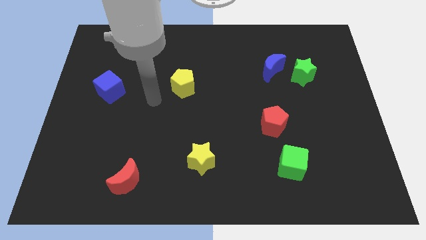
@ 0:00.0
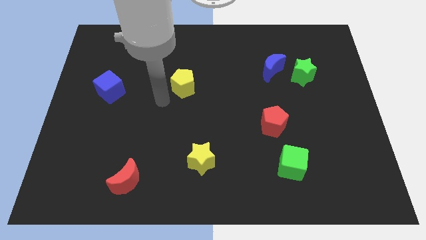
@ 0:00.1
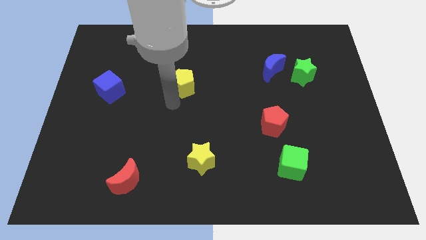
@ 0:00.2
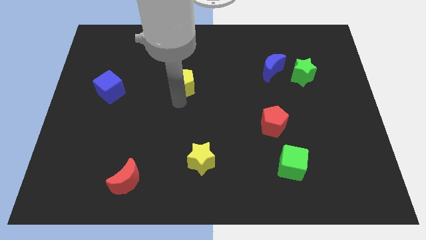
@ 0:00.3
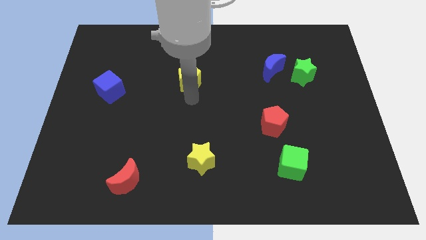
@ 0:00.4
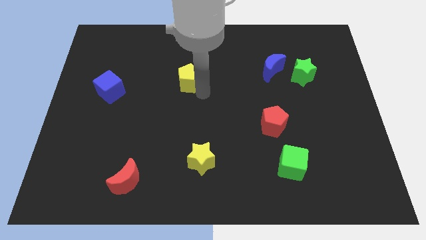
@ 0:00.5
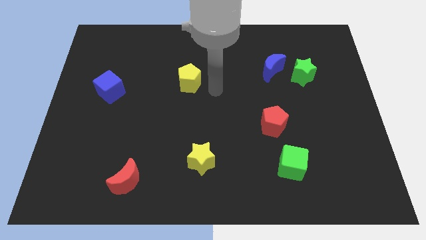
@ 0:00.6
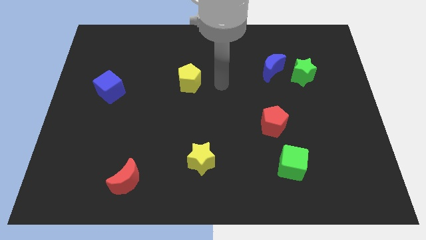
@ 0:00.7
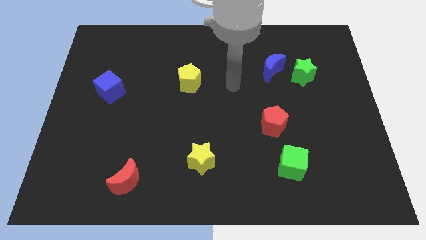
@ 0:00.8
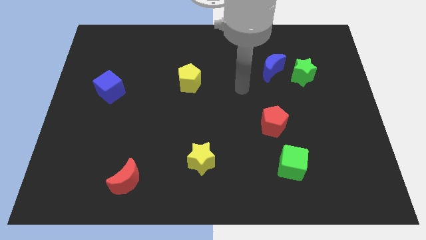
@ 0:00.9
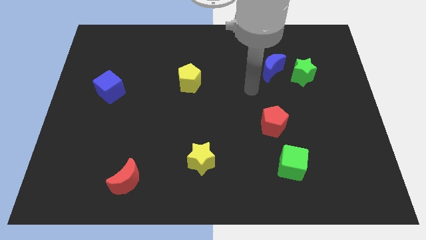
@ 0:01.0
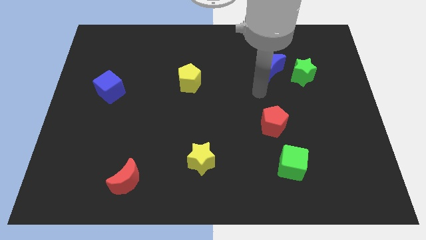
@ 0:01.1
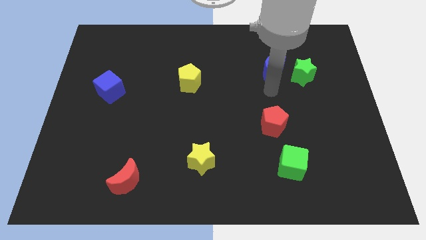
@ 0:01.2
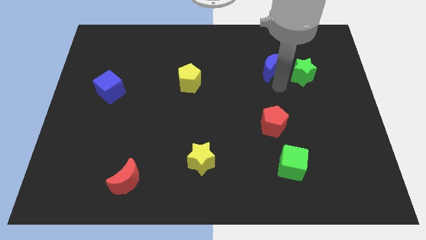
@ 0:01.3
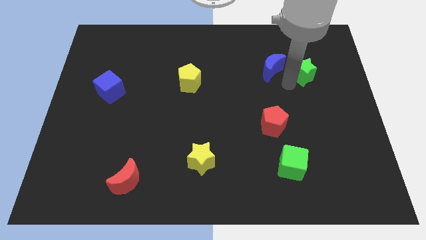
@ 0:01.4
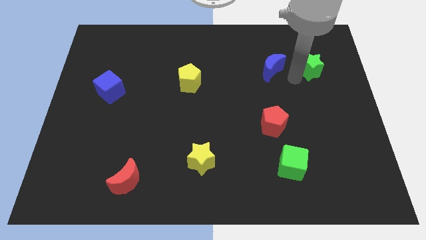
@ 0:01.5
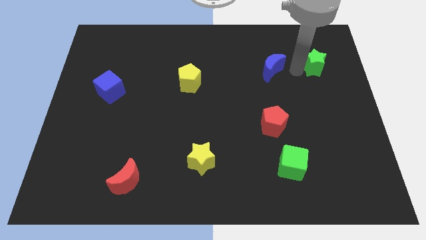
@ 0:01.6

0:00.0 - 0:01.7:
move the blue moon away from the green star

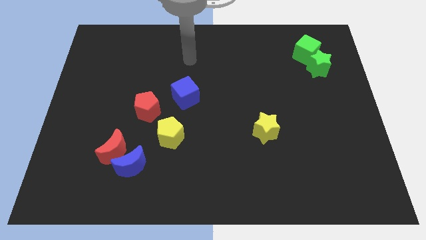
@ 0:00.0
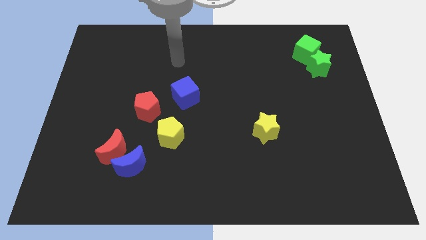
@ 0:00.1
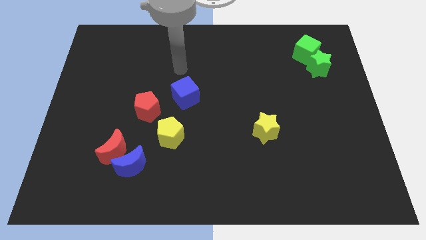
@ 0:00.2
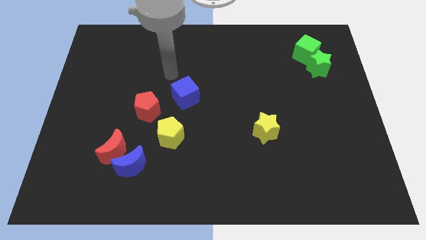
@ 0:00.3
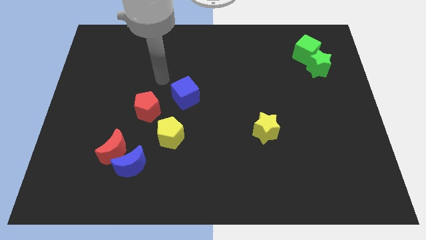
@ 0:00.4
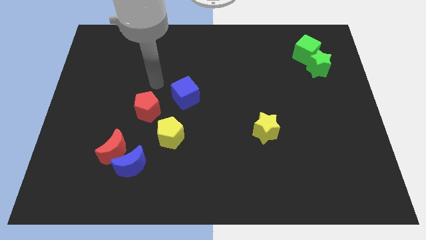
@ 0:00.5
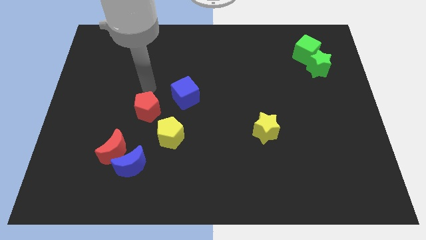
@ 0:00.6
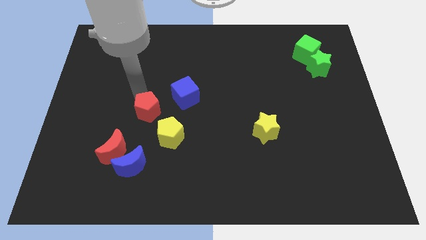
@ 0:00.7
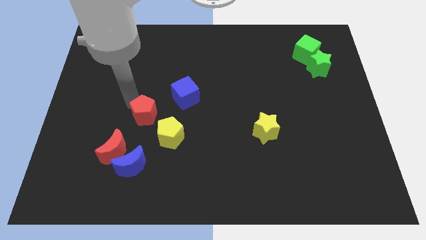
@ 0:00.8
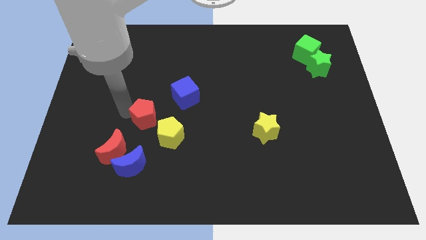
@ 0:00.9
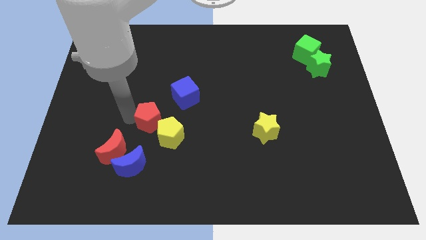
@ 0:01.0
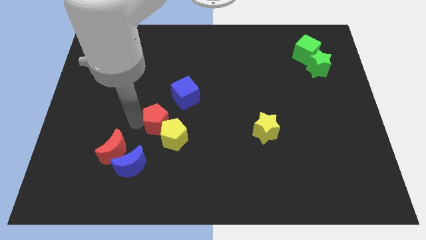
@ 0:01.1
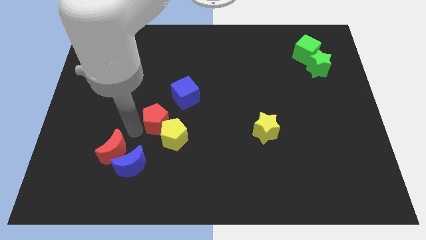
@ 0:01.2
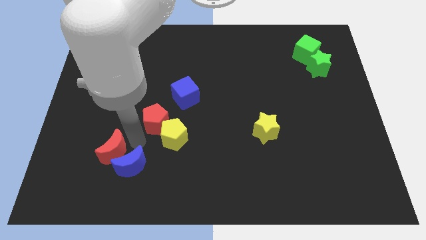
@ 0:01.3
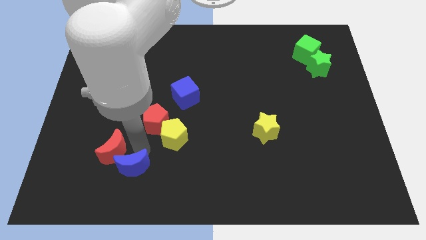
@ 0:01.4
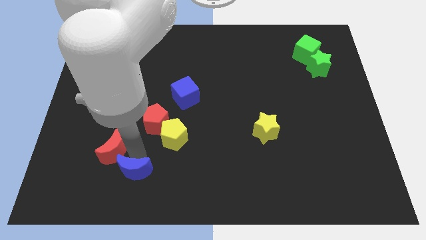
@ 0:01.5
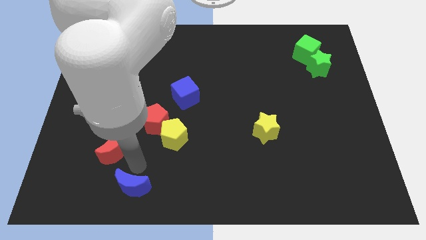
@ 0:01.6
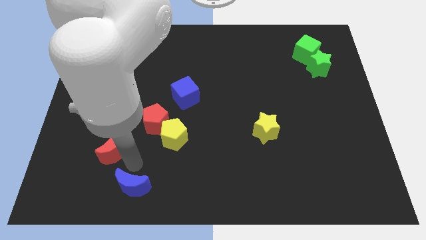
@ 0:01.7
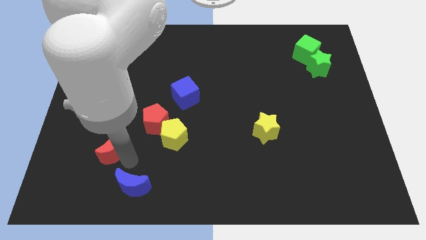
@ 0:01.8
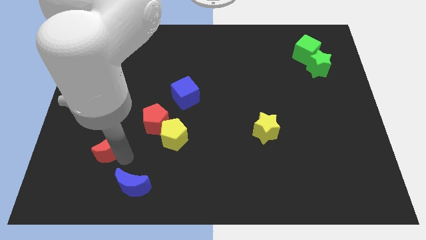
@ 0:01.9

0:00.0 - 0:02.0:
pull the red moon apart from the blue moon

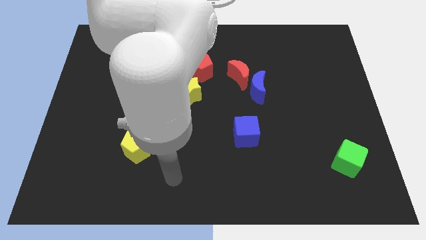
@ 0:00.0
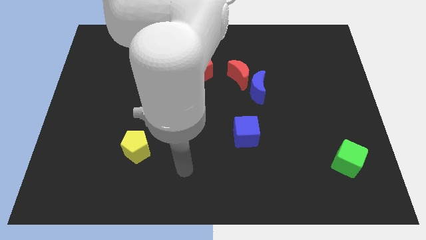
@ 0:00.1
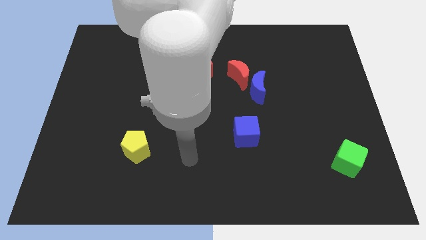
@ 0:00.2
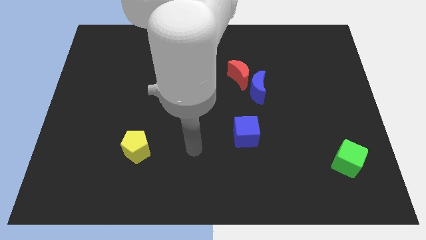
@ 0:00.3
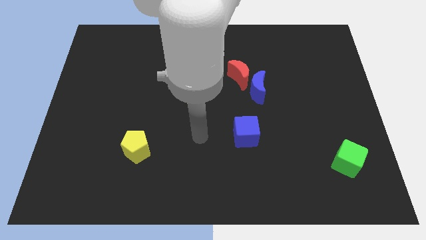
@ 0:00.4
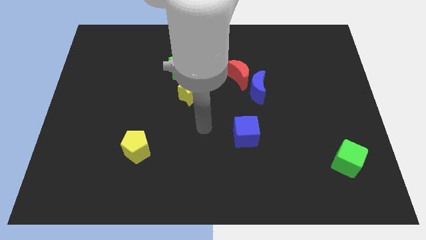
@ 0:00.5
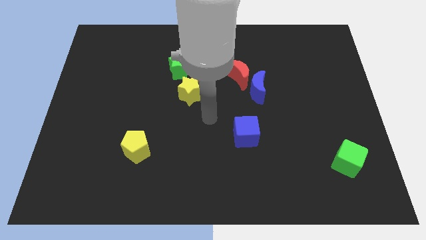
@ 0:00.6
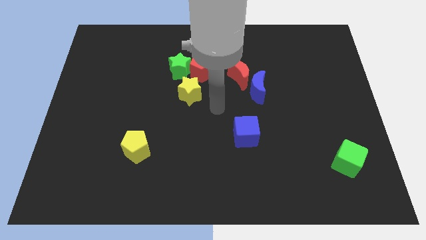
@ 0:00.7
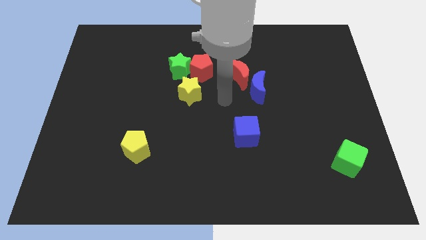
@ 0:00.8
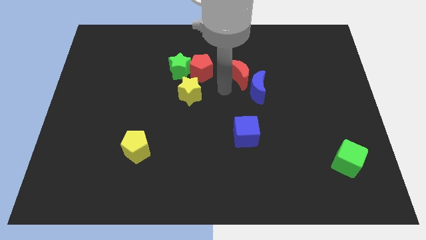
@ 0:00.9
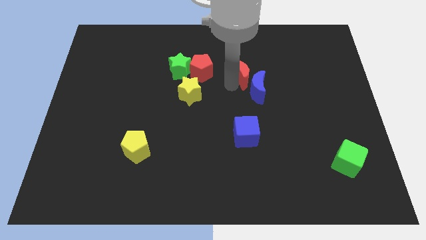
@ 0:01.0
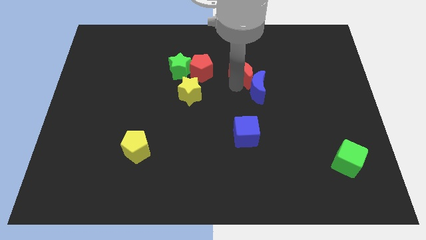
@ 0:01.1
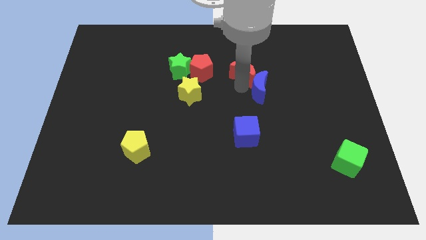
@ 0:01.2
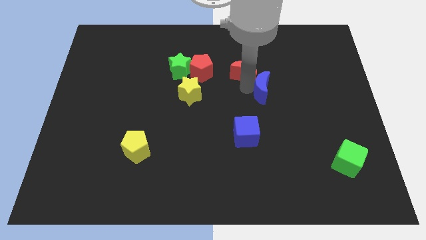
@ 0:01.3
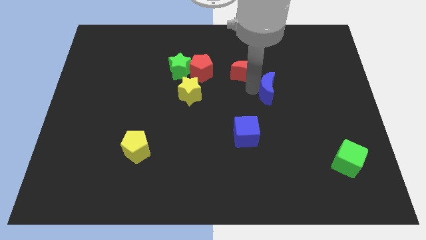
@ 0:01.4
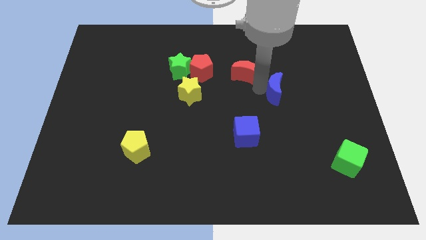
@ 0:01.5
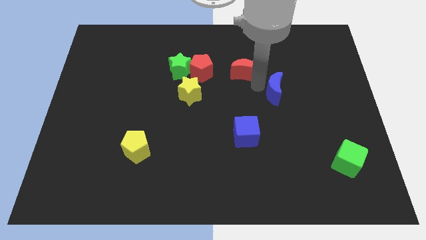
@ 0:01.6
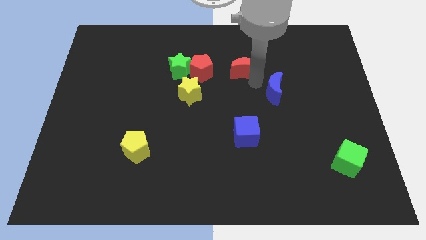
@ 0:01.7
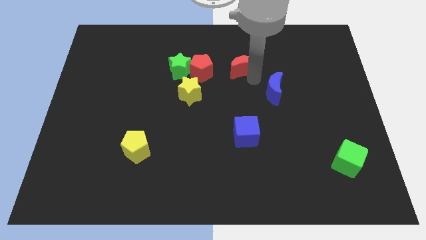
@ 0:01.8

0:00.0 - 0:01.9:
separate the blue moon from the red moon

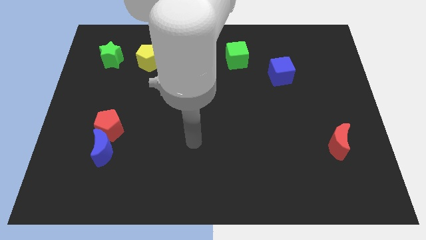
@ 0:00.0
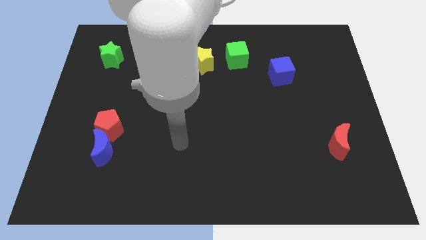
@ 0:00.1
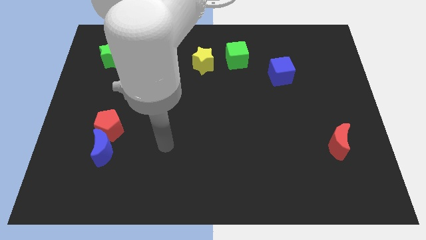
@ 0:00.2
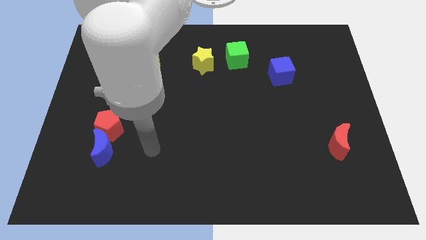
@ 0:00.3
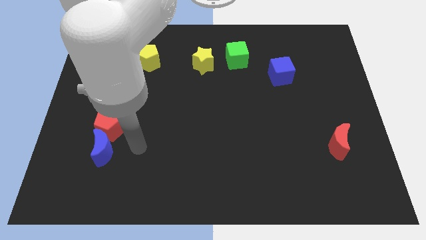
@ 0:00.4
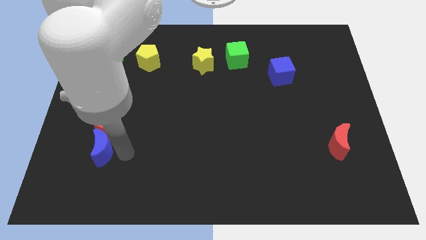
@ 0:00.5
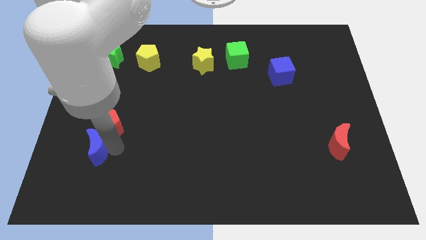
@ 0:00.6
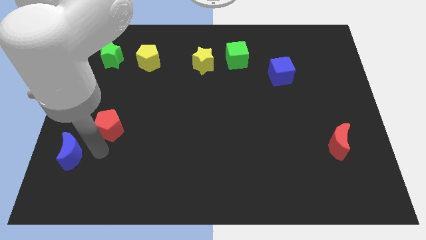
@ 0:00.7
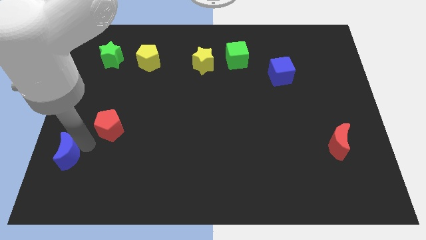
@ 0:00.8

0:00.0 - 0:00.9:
move the red pentagon away from the blue moon

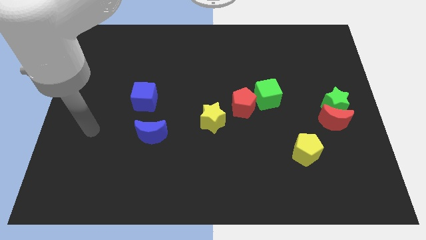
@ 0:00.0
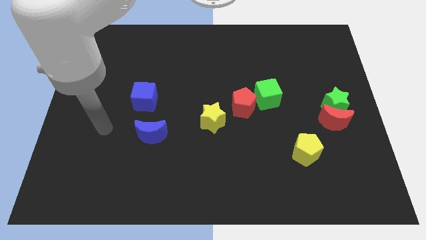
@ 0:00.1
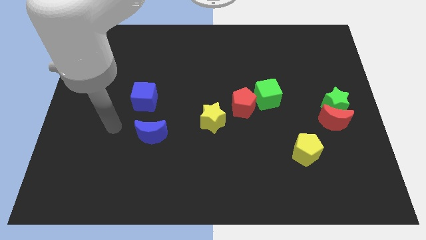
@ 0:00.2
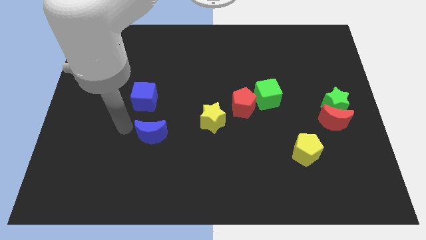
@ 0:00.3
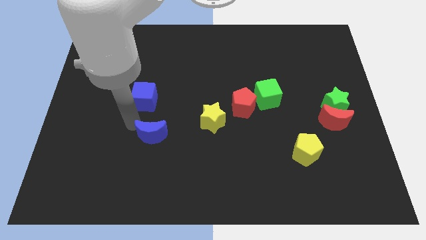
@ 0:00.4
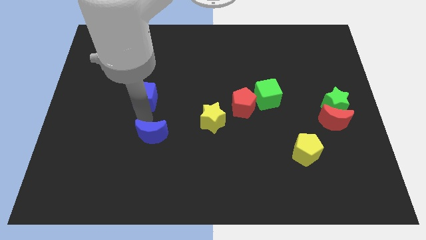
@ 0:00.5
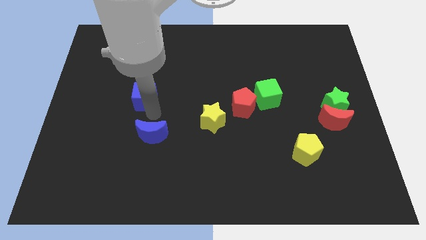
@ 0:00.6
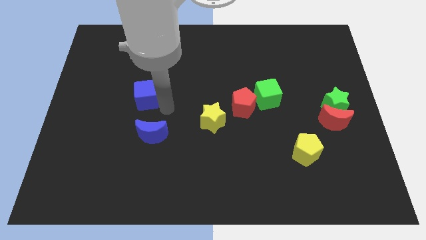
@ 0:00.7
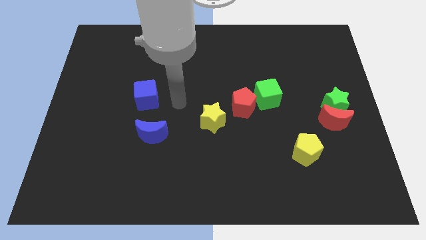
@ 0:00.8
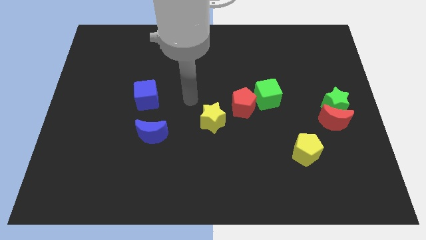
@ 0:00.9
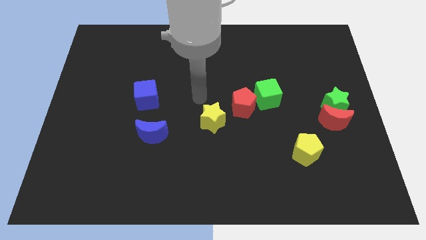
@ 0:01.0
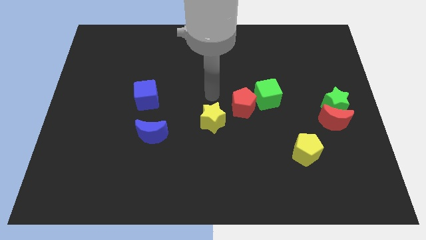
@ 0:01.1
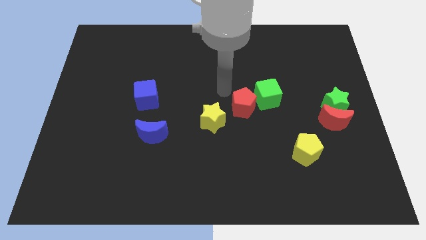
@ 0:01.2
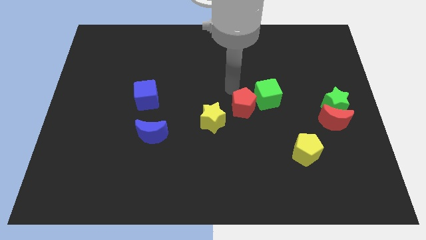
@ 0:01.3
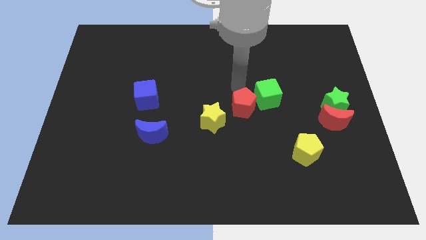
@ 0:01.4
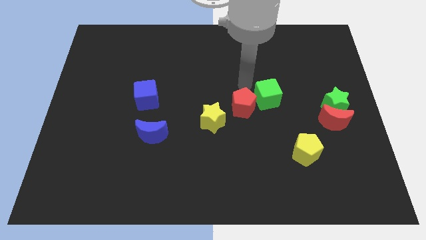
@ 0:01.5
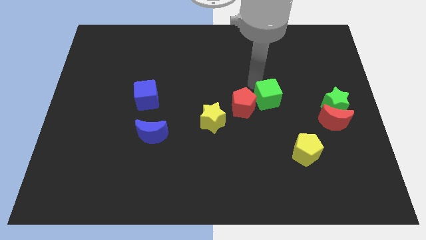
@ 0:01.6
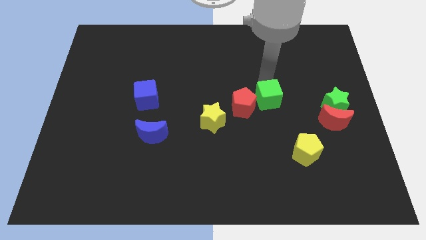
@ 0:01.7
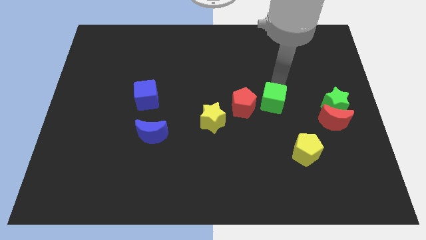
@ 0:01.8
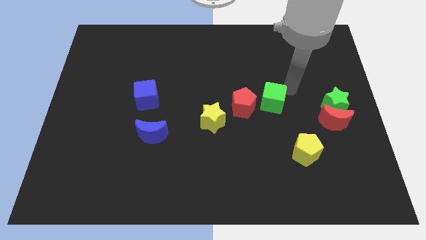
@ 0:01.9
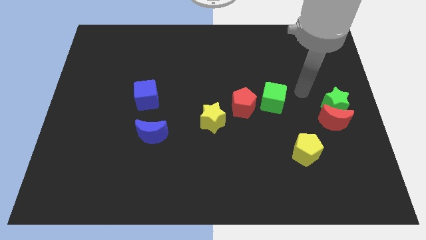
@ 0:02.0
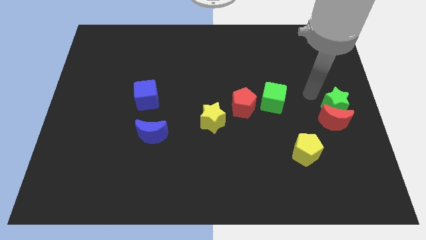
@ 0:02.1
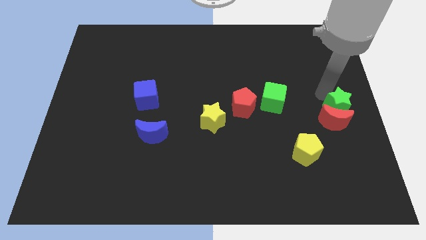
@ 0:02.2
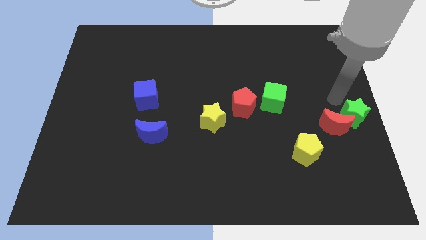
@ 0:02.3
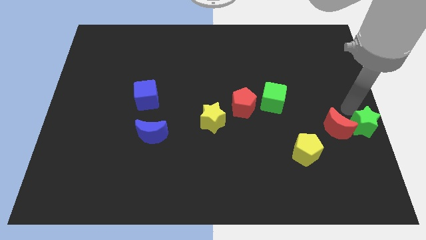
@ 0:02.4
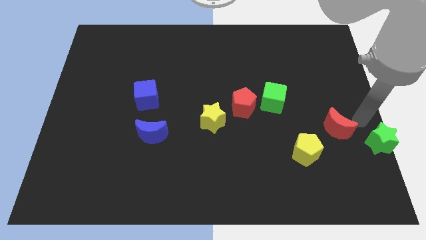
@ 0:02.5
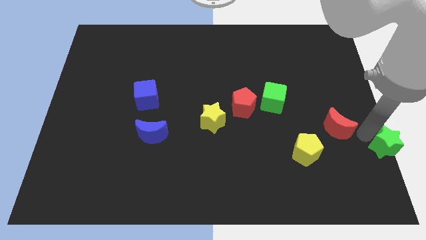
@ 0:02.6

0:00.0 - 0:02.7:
pull the red moon apart from the green star

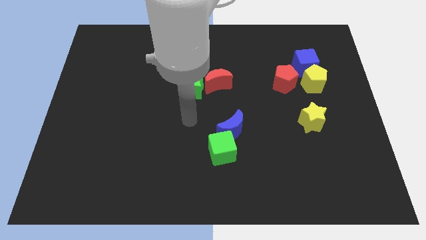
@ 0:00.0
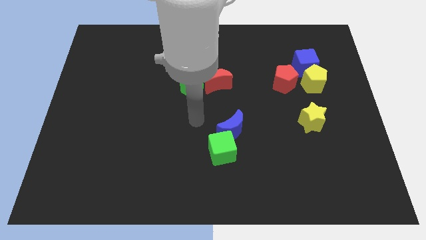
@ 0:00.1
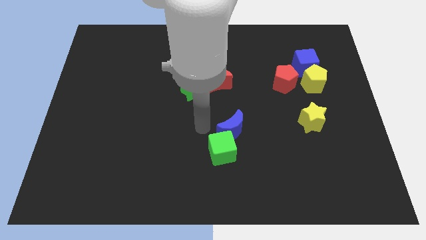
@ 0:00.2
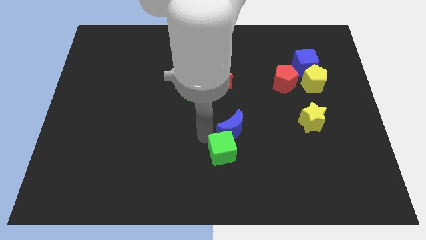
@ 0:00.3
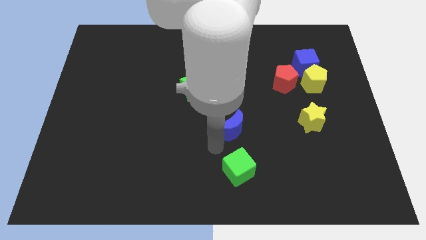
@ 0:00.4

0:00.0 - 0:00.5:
separate the blue moon from the green cube
